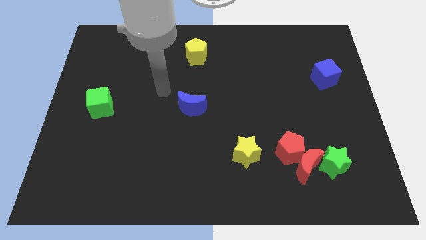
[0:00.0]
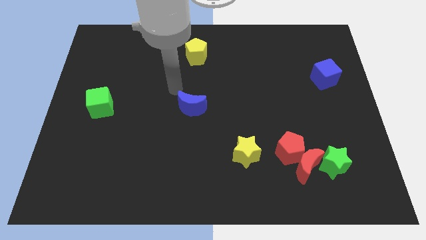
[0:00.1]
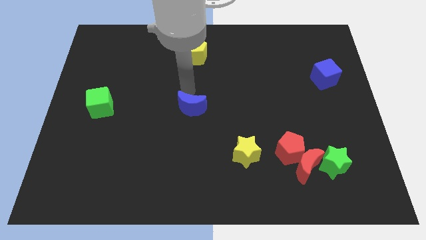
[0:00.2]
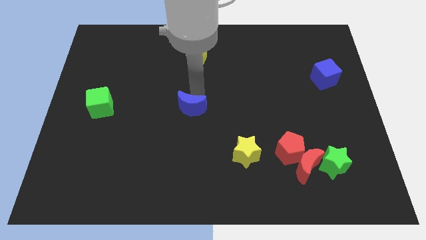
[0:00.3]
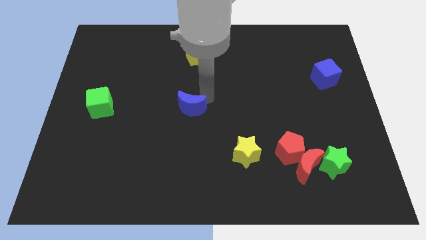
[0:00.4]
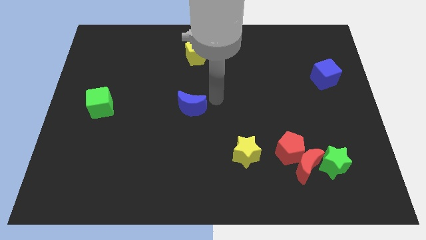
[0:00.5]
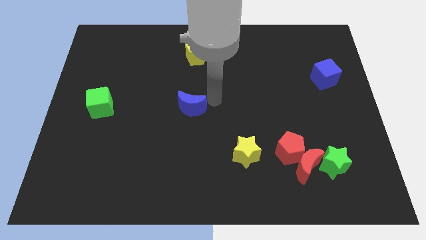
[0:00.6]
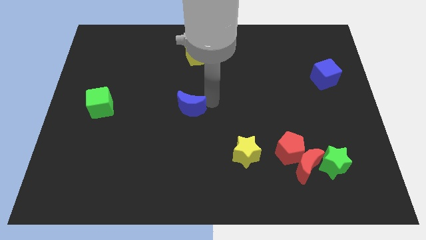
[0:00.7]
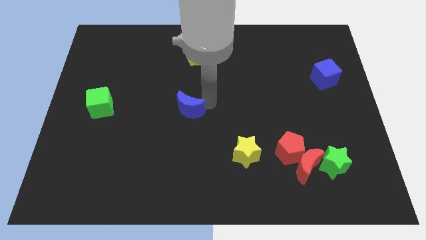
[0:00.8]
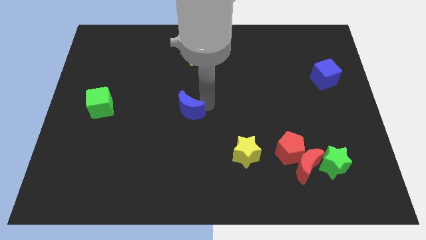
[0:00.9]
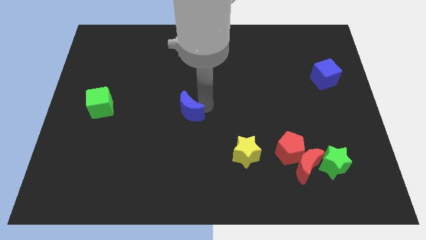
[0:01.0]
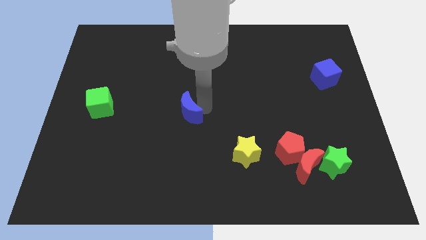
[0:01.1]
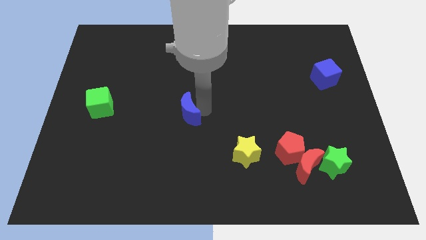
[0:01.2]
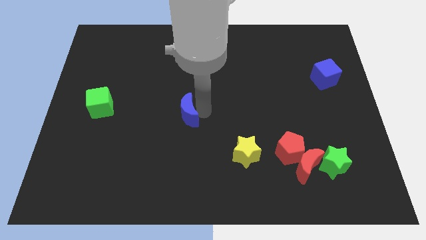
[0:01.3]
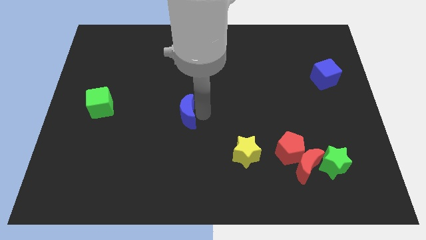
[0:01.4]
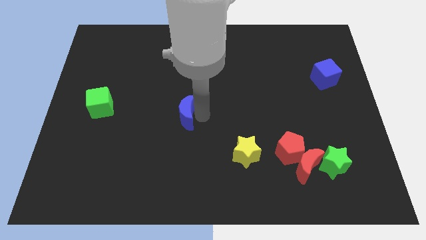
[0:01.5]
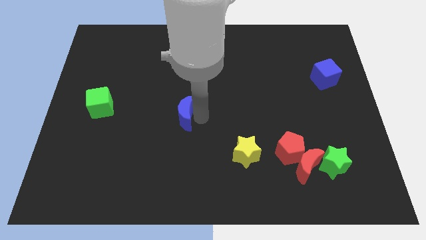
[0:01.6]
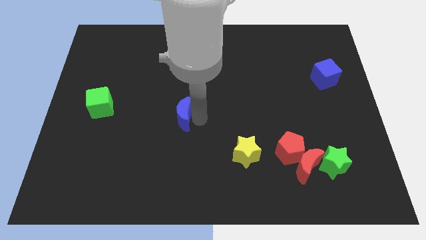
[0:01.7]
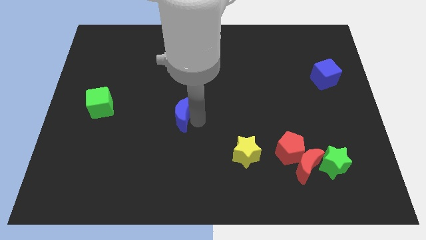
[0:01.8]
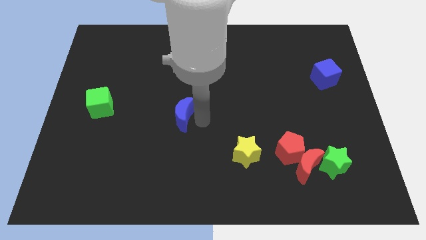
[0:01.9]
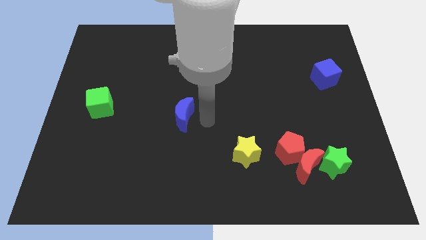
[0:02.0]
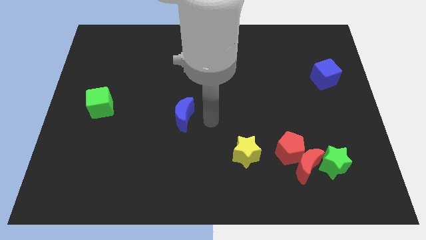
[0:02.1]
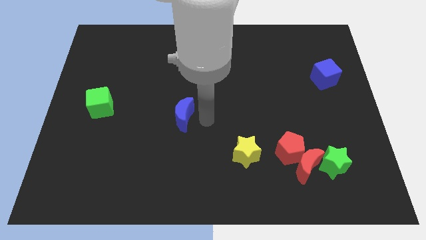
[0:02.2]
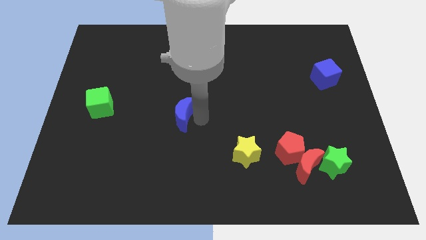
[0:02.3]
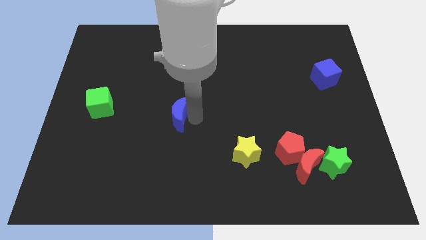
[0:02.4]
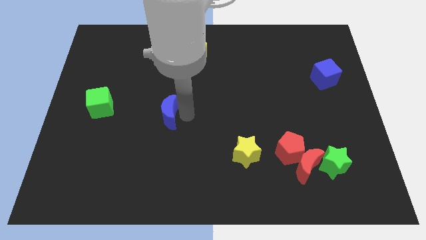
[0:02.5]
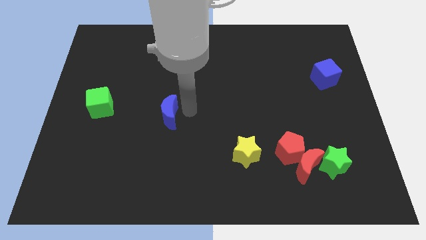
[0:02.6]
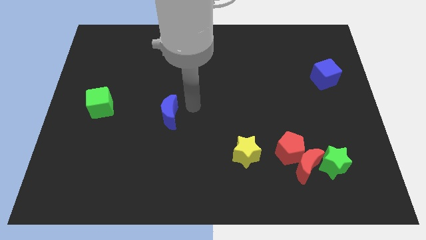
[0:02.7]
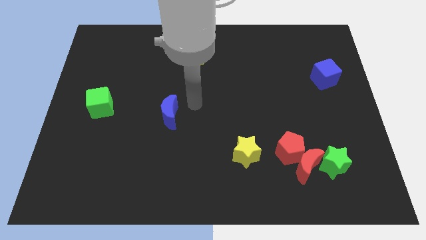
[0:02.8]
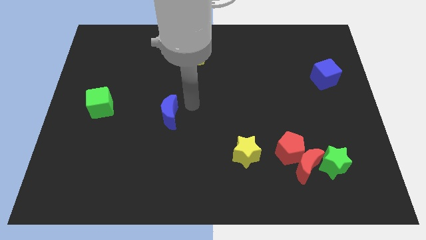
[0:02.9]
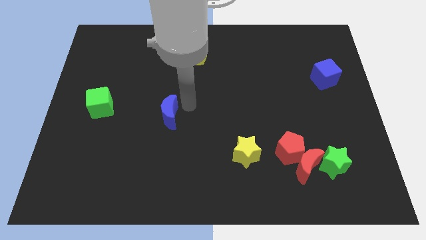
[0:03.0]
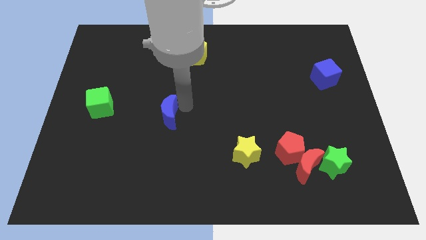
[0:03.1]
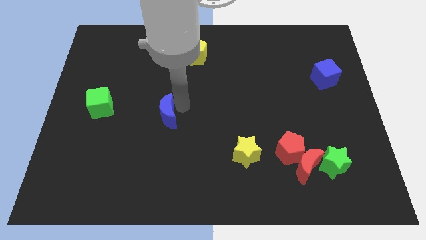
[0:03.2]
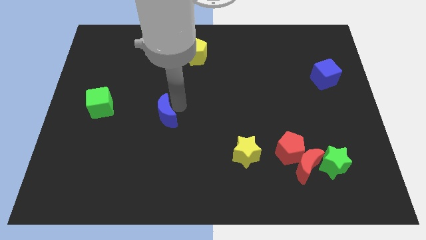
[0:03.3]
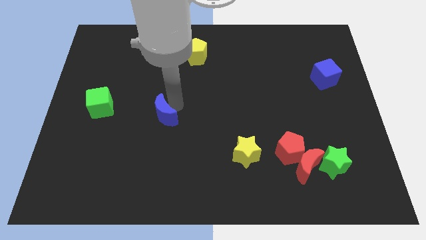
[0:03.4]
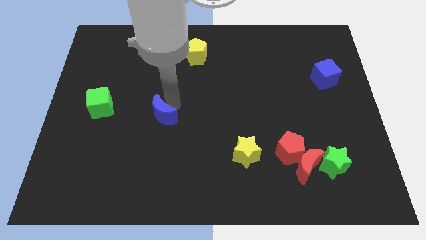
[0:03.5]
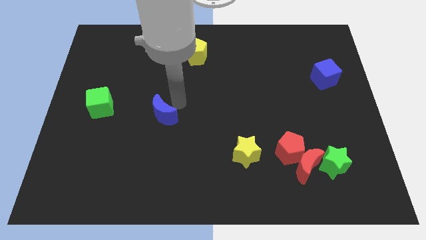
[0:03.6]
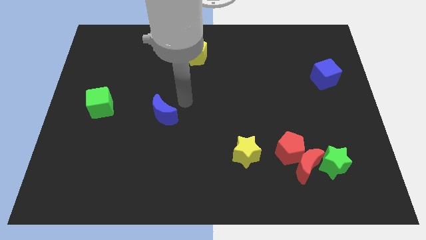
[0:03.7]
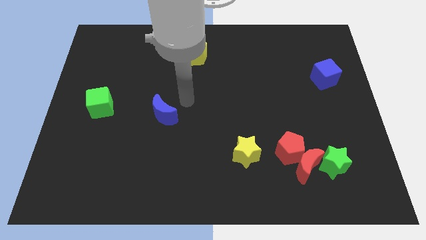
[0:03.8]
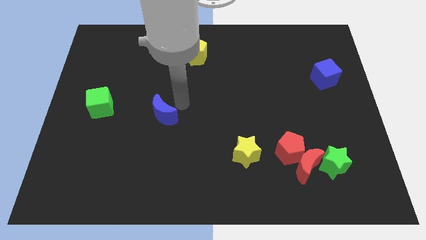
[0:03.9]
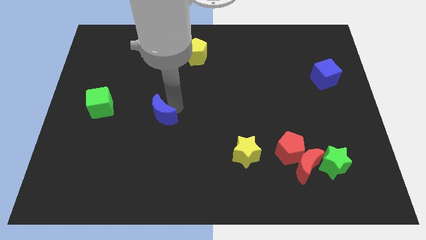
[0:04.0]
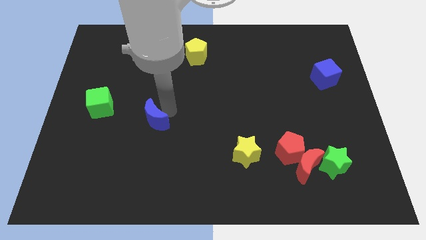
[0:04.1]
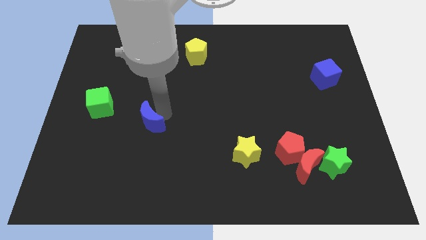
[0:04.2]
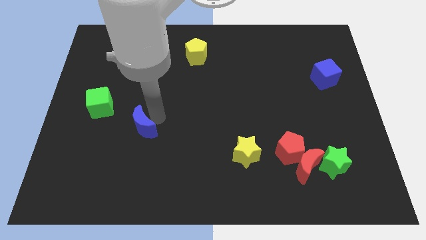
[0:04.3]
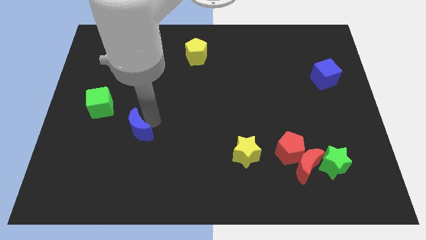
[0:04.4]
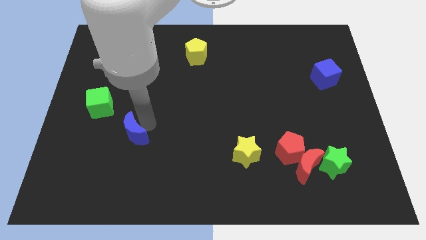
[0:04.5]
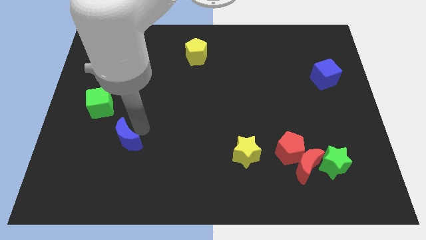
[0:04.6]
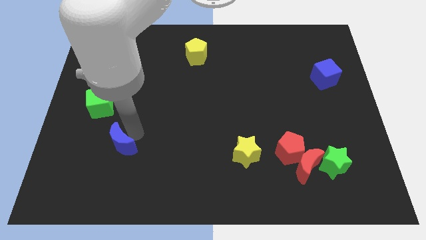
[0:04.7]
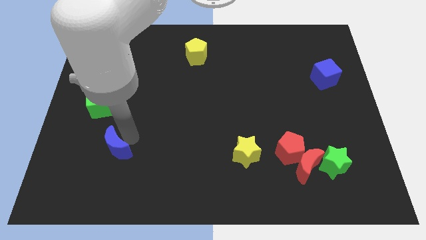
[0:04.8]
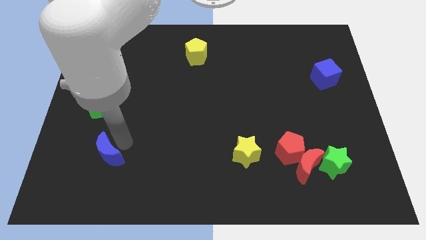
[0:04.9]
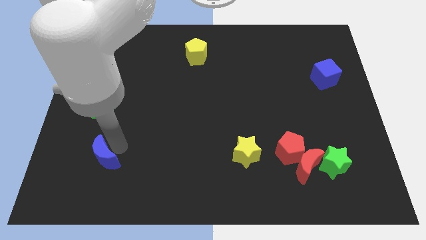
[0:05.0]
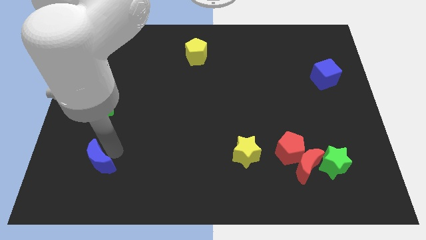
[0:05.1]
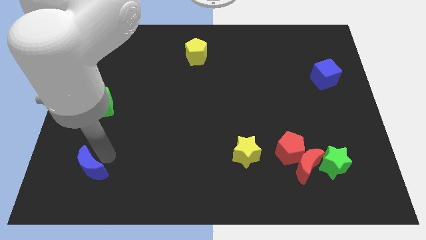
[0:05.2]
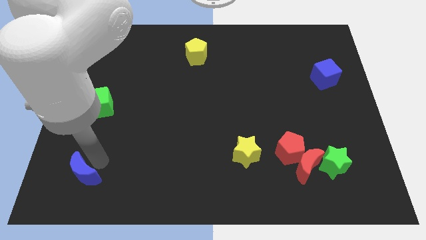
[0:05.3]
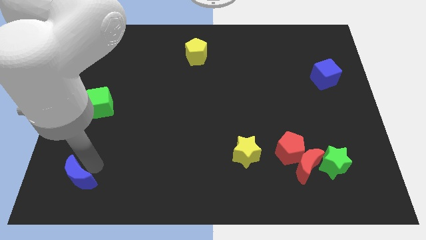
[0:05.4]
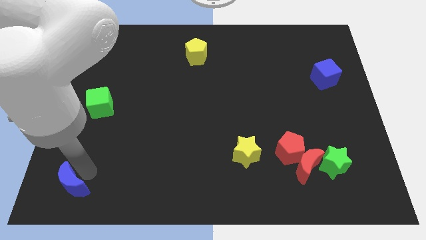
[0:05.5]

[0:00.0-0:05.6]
push the blue moon to the lower left corner
